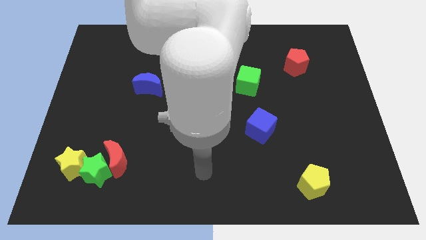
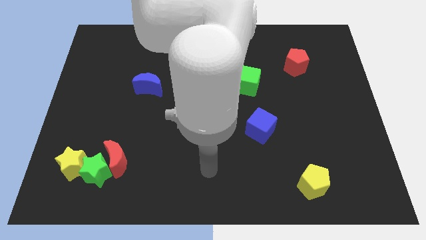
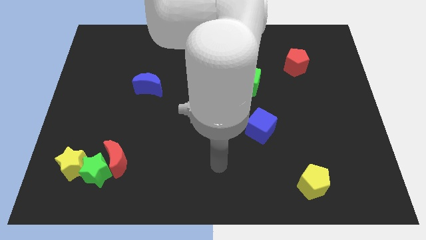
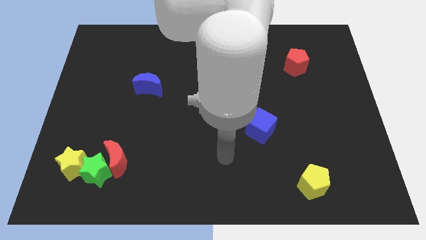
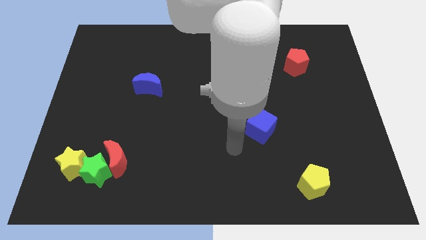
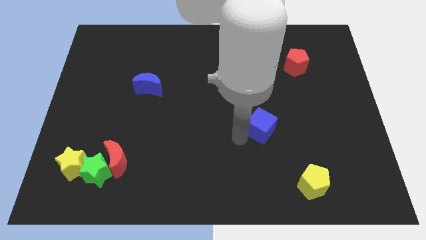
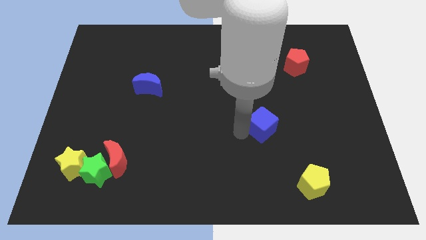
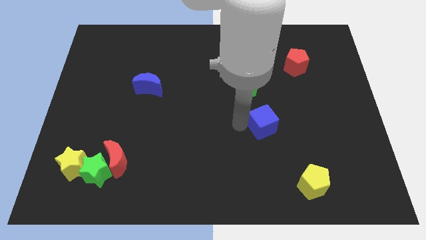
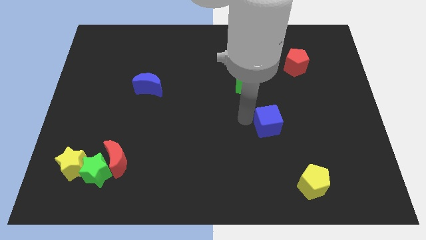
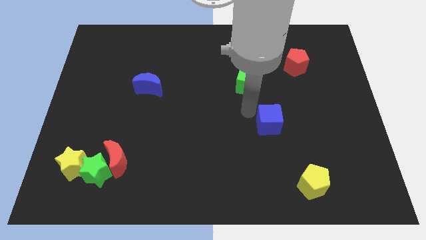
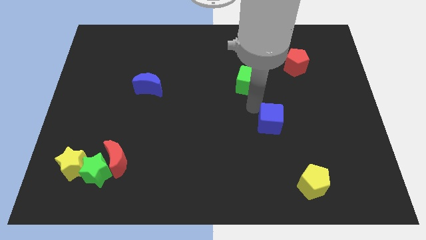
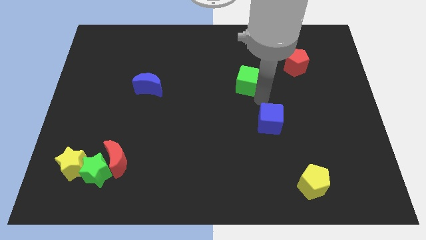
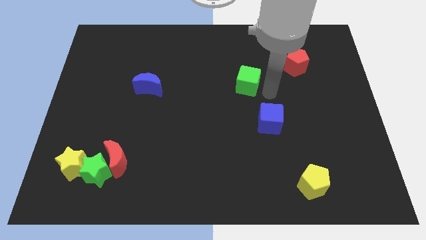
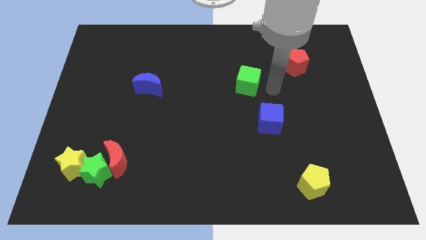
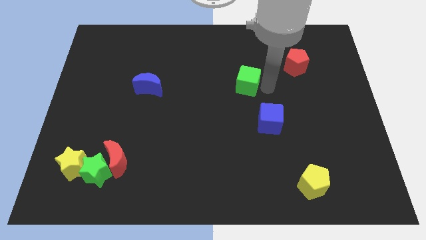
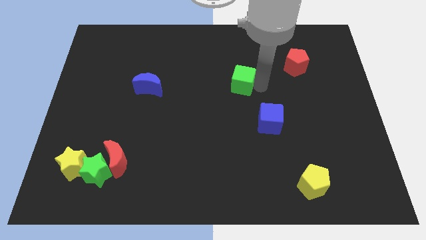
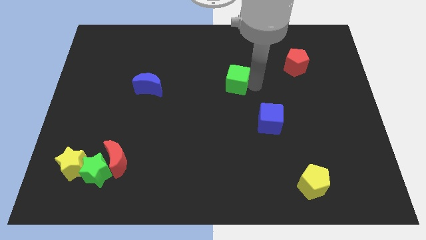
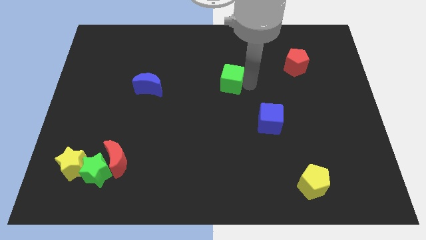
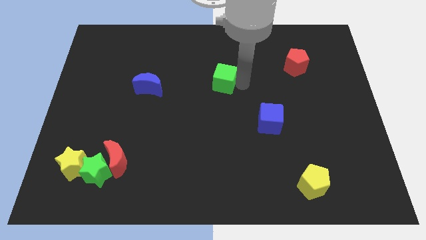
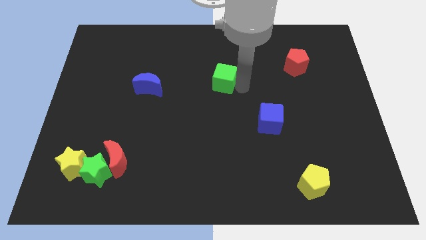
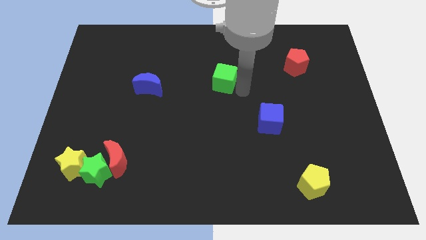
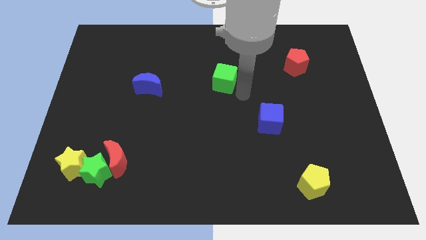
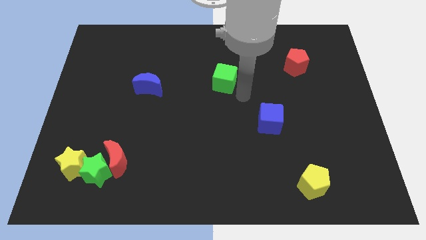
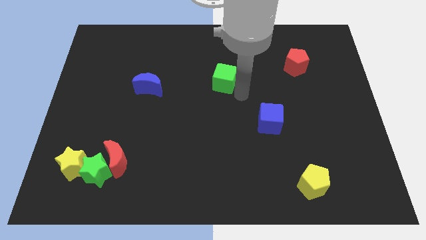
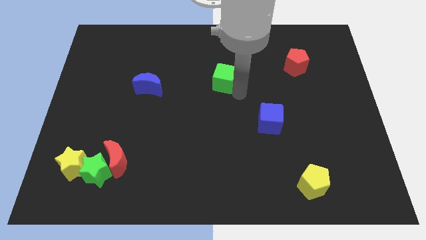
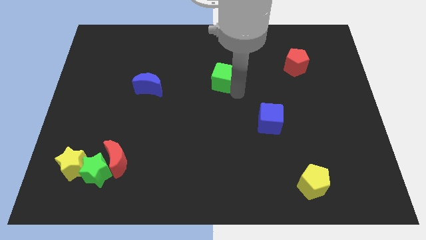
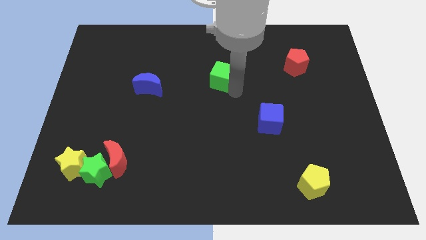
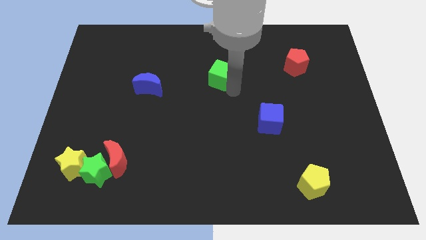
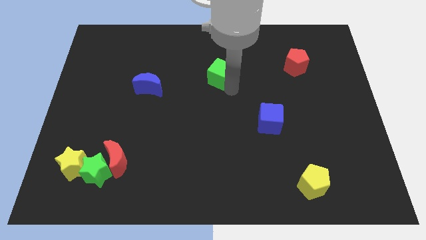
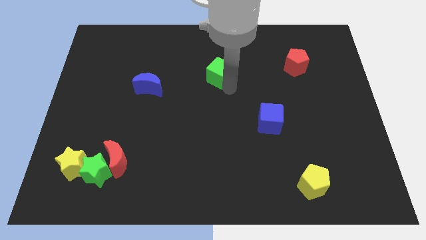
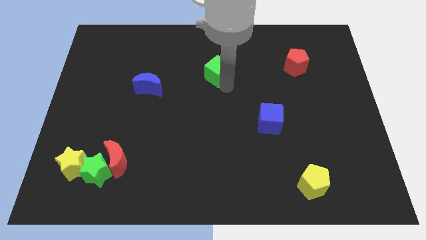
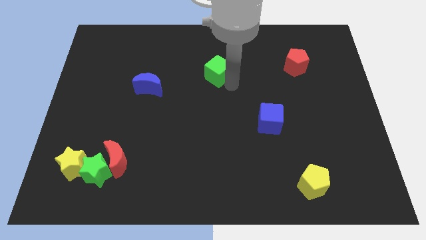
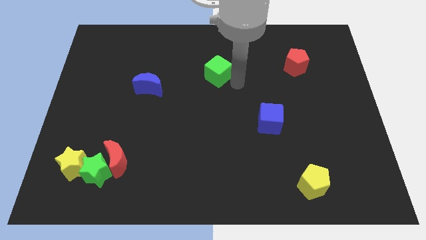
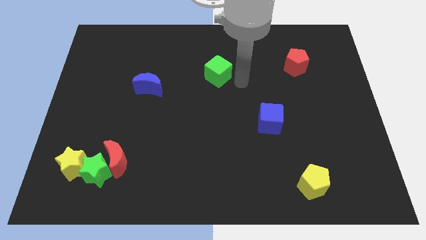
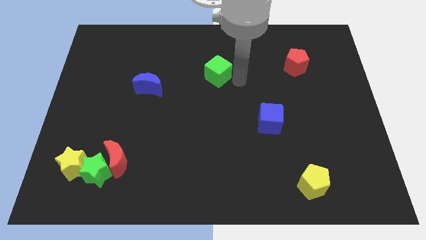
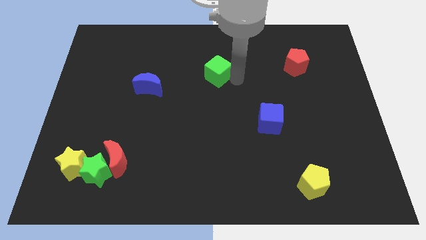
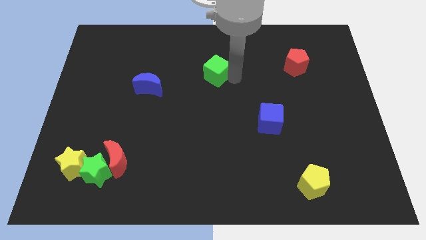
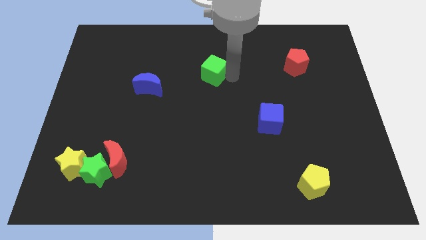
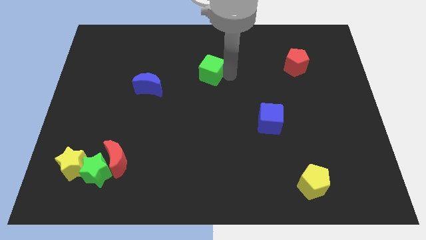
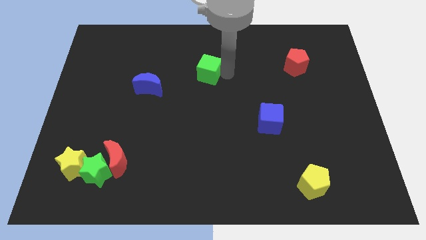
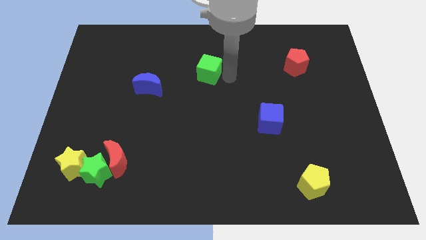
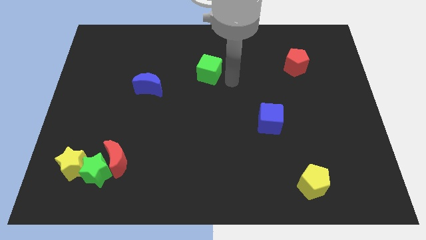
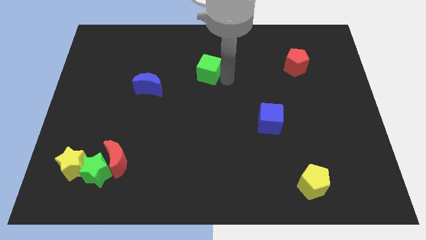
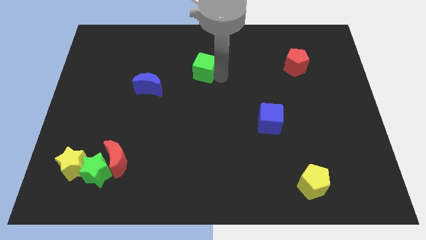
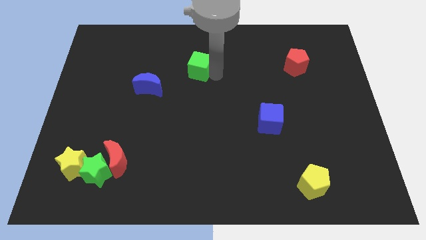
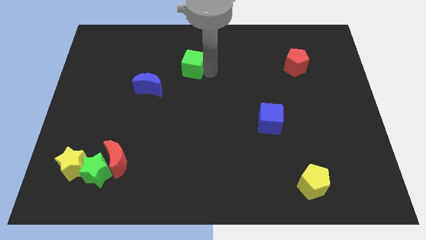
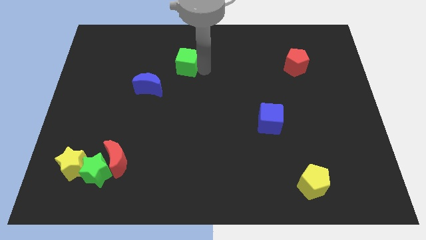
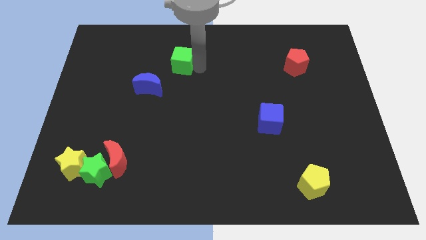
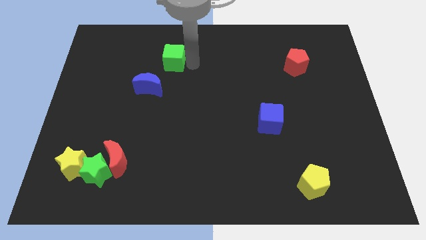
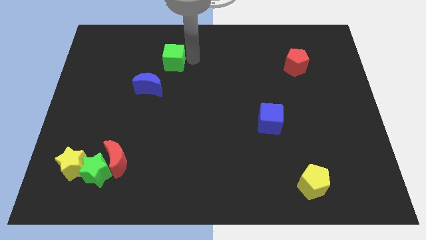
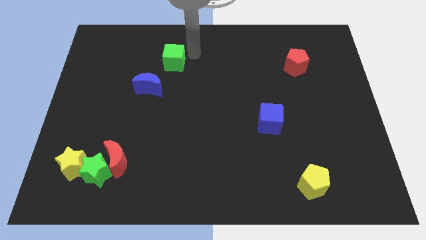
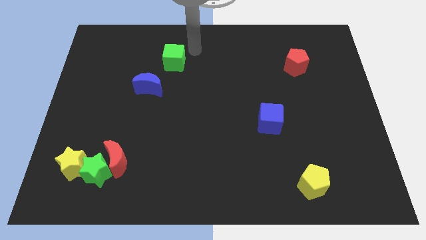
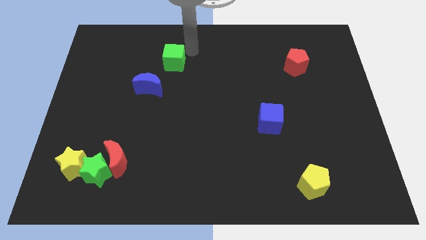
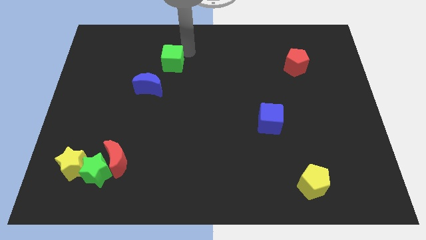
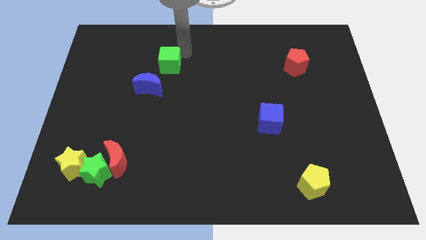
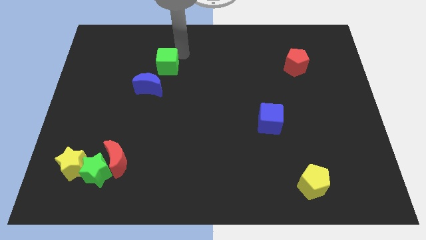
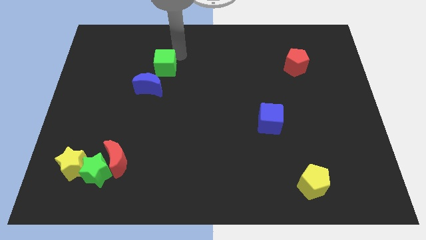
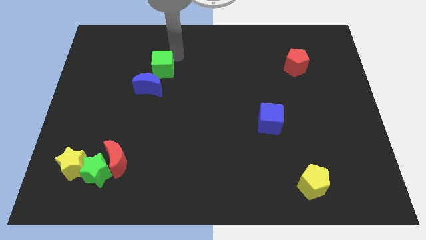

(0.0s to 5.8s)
move the green cube left

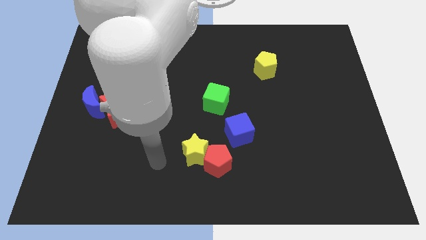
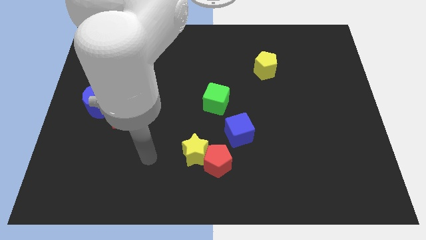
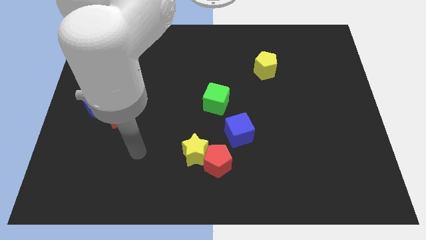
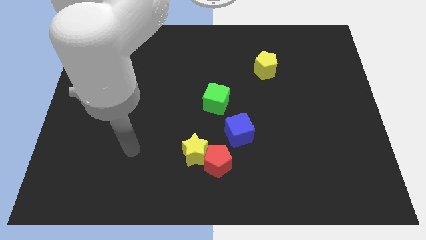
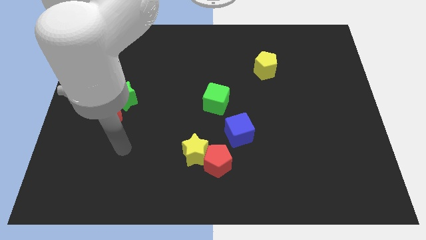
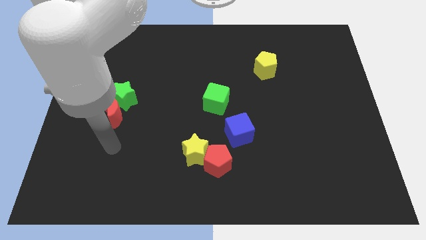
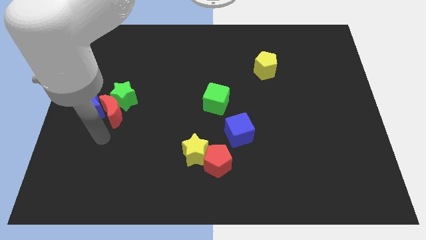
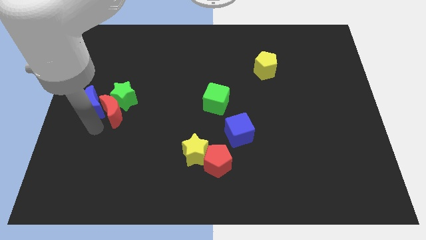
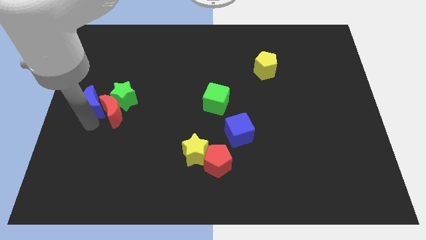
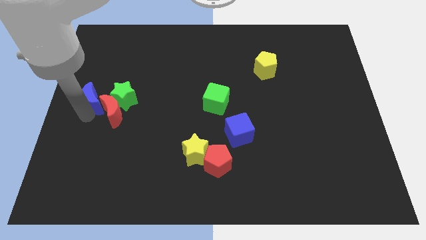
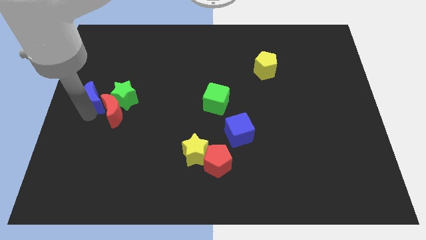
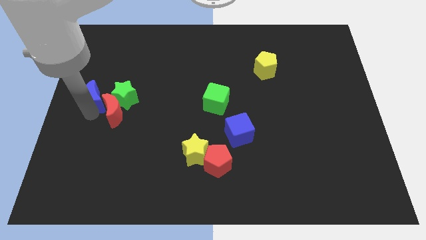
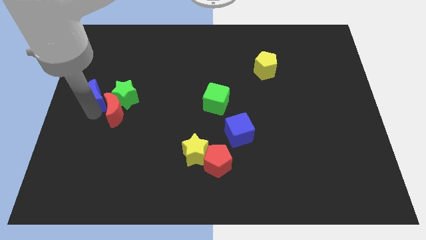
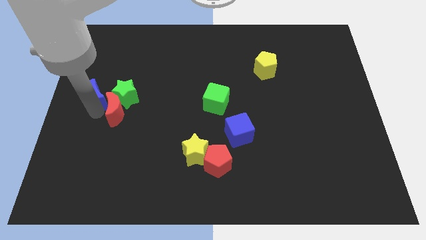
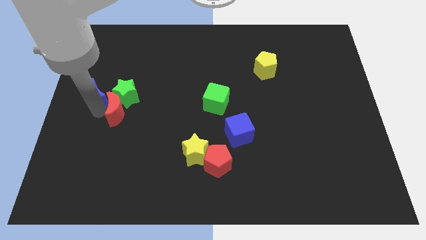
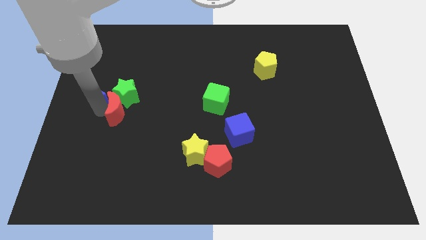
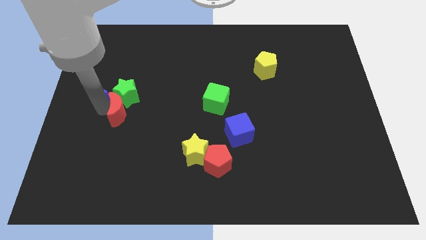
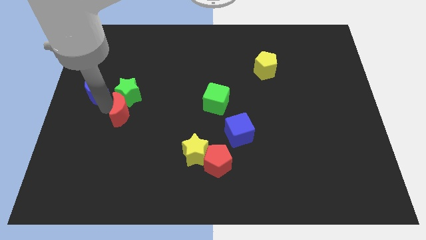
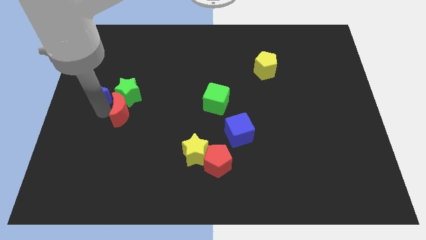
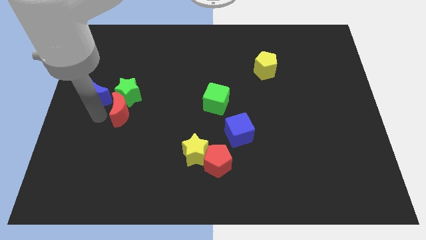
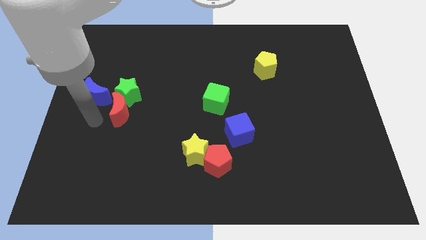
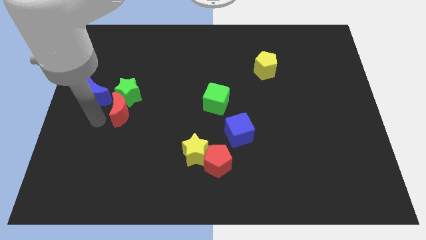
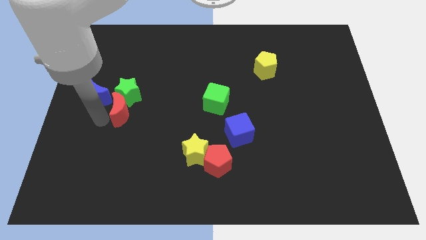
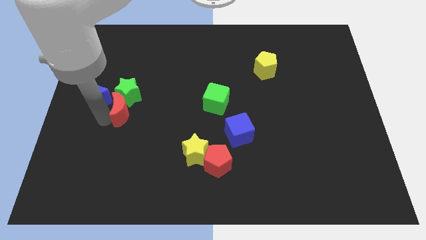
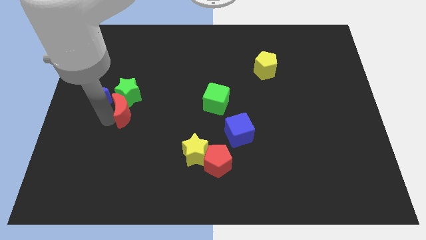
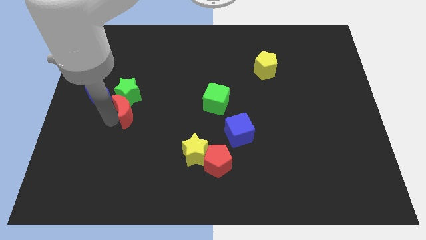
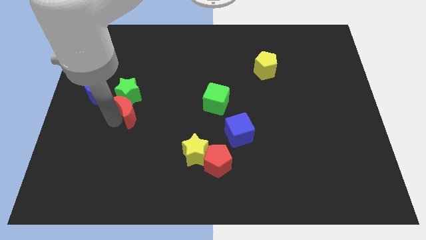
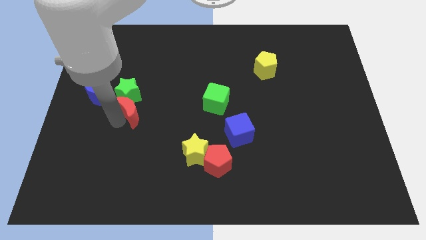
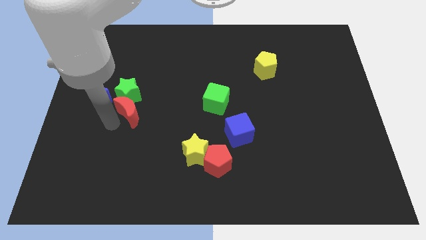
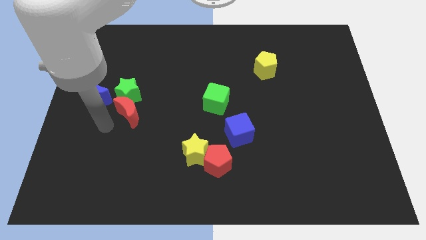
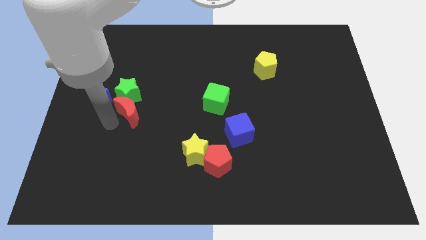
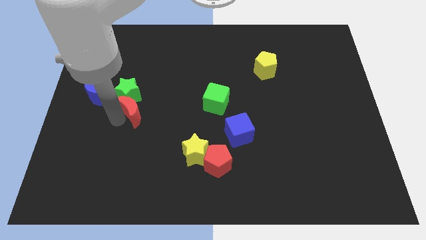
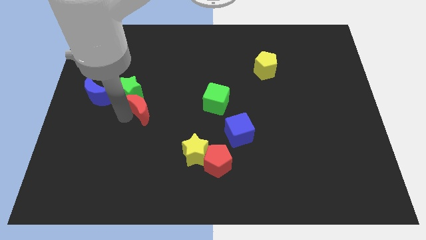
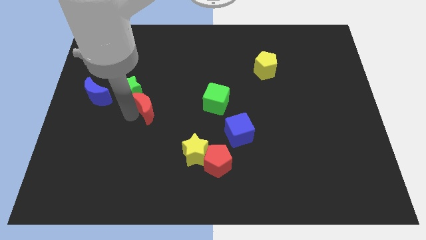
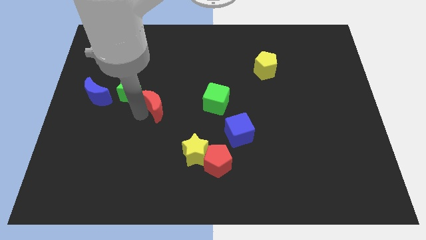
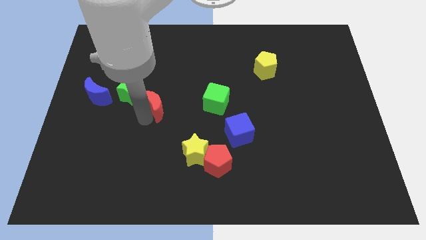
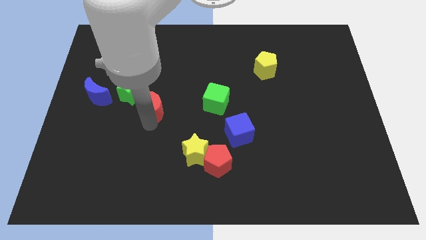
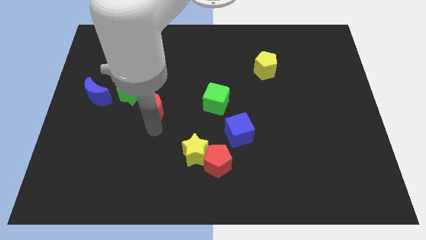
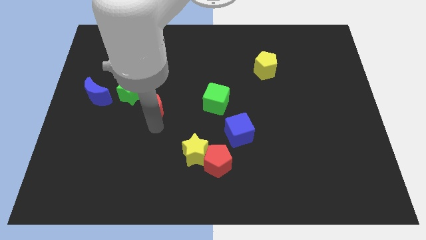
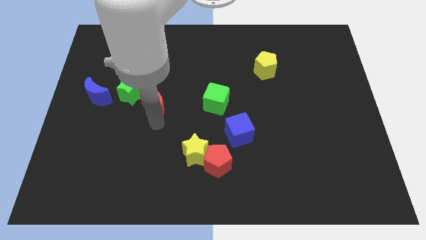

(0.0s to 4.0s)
slide the red moon diagonally upwards and right a bit
